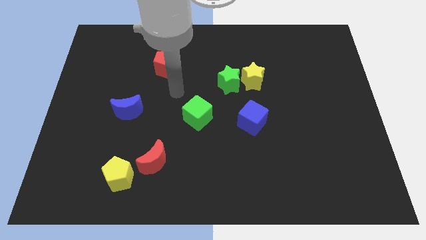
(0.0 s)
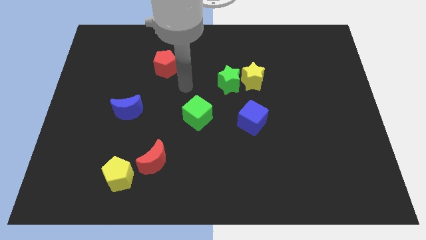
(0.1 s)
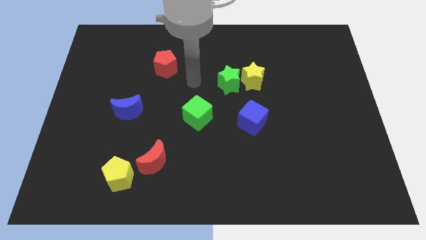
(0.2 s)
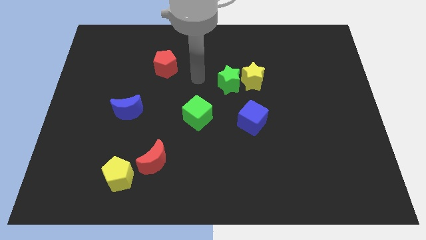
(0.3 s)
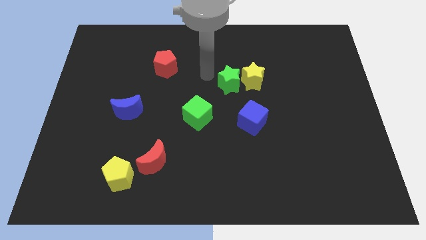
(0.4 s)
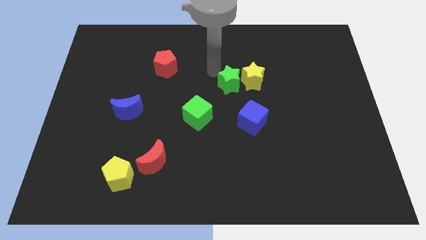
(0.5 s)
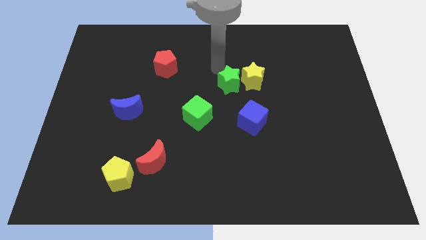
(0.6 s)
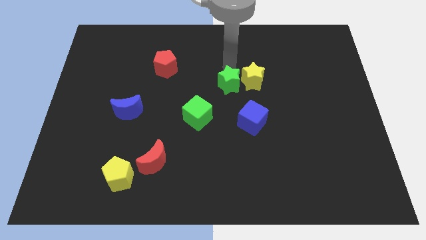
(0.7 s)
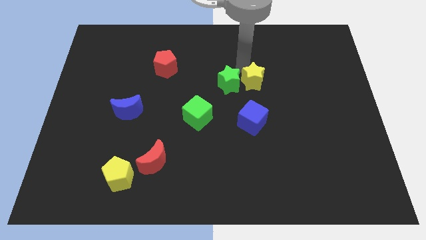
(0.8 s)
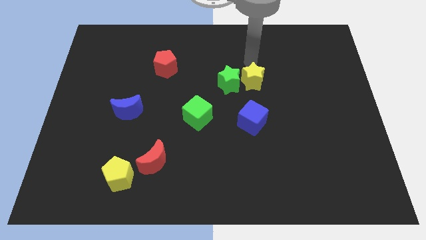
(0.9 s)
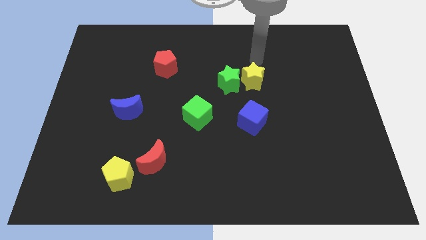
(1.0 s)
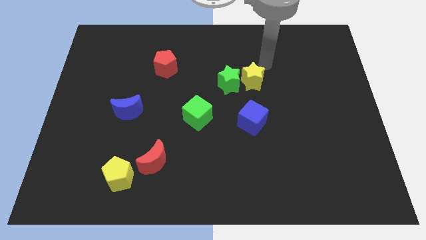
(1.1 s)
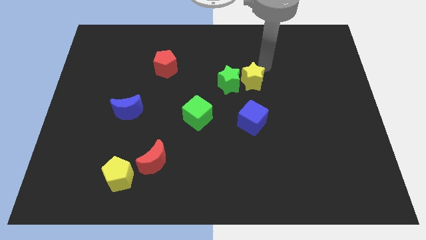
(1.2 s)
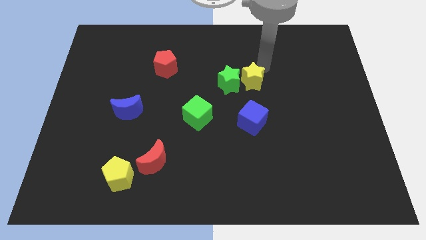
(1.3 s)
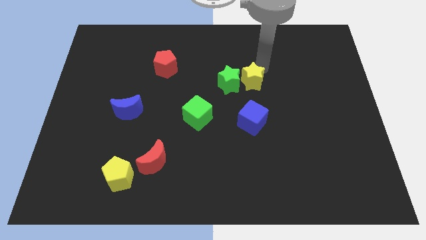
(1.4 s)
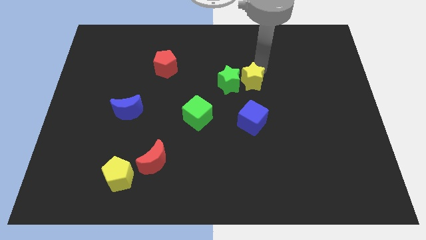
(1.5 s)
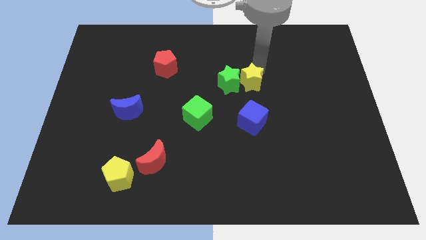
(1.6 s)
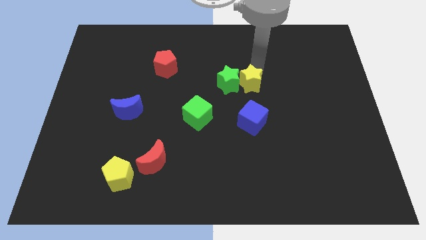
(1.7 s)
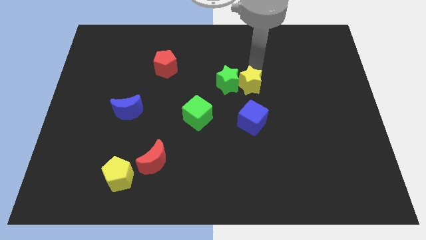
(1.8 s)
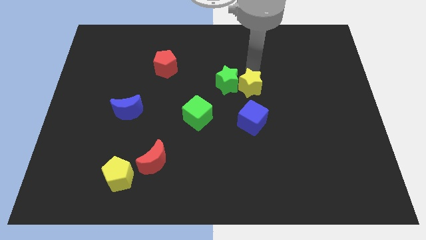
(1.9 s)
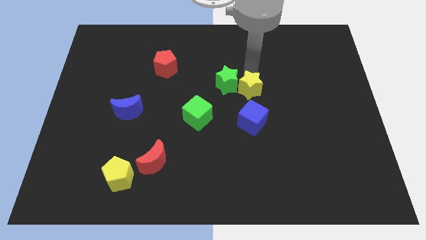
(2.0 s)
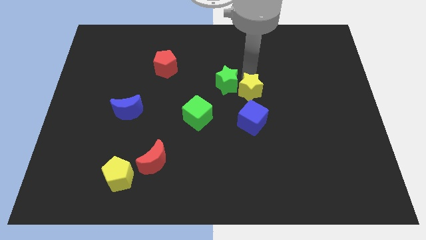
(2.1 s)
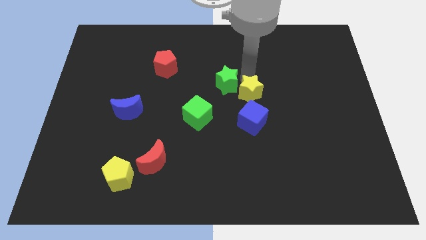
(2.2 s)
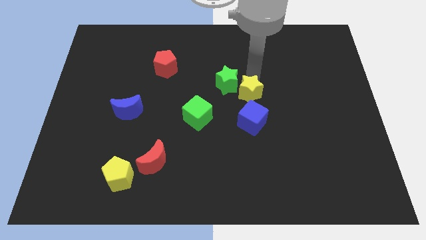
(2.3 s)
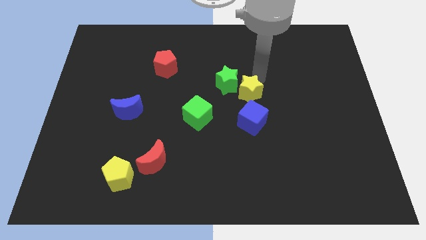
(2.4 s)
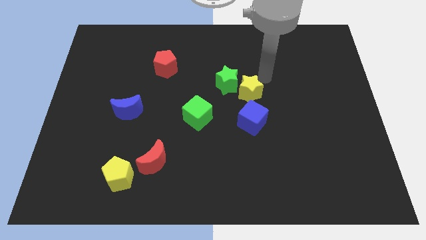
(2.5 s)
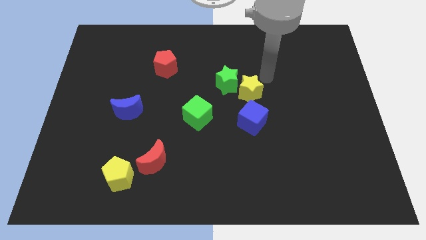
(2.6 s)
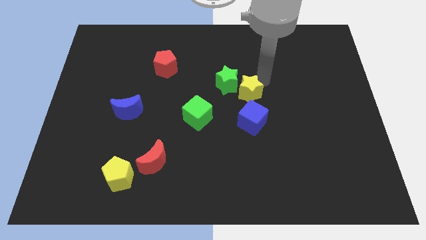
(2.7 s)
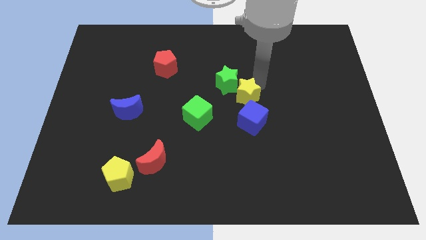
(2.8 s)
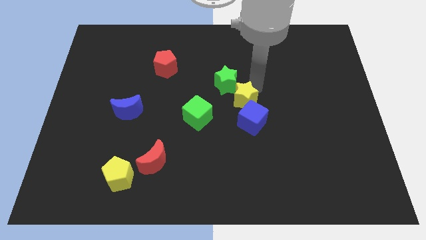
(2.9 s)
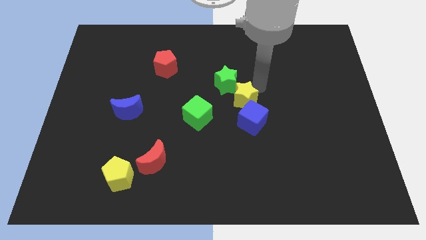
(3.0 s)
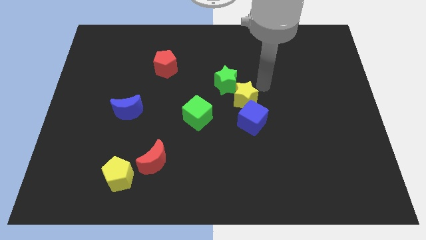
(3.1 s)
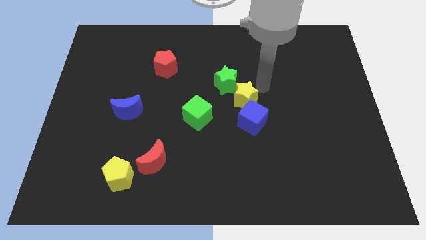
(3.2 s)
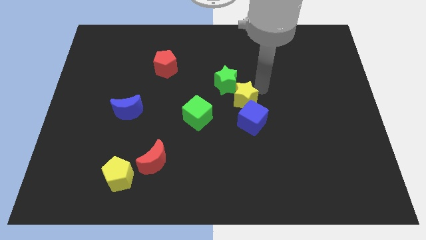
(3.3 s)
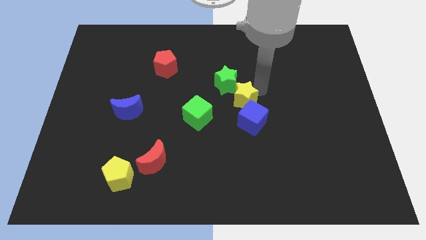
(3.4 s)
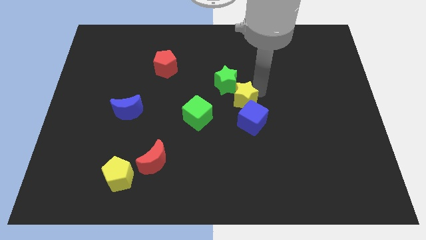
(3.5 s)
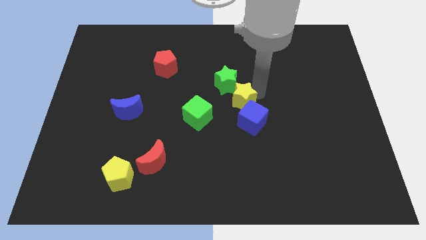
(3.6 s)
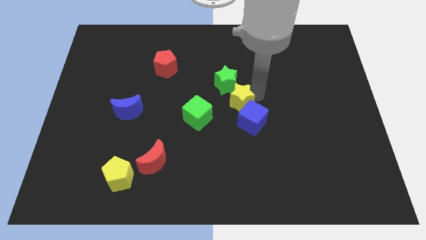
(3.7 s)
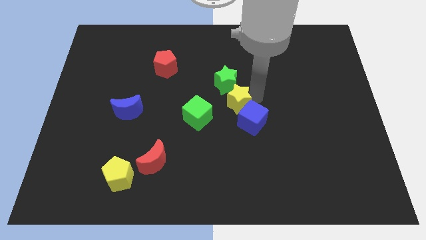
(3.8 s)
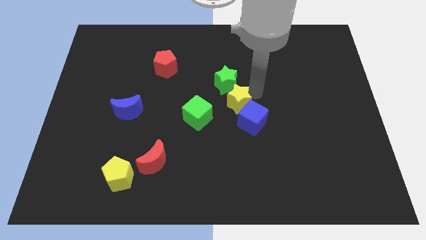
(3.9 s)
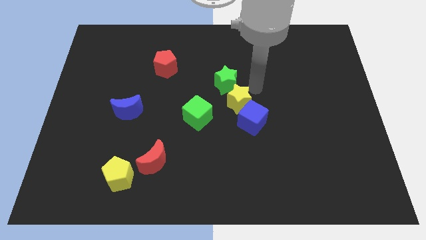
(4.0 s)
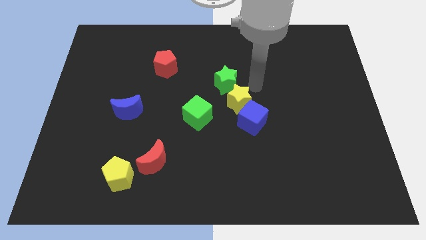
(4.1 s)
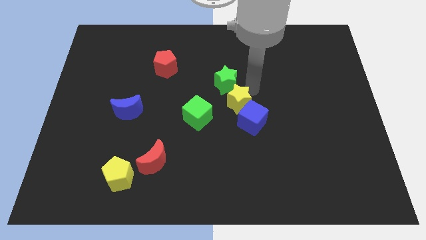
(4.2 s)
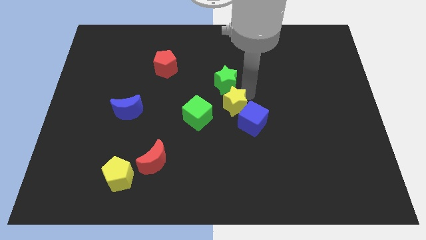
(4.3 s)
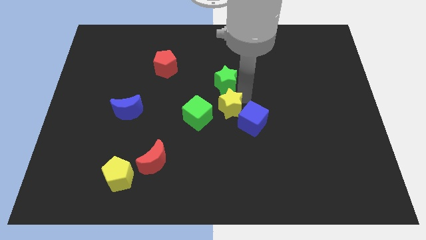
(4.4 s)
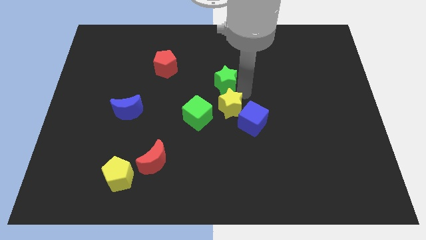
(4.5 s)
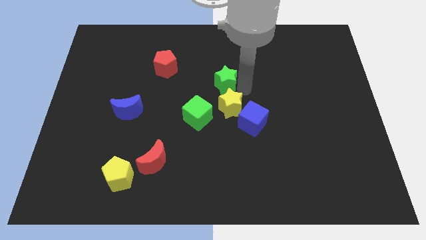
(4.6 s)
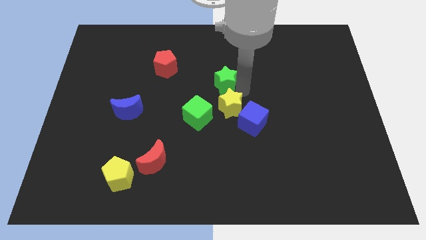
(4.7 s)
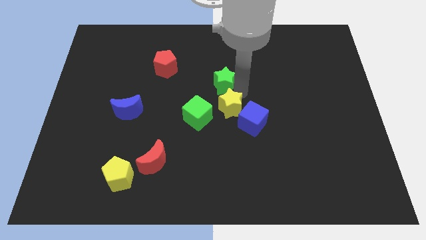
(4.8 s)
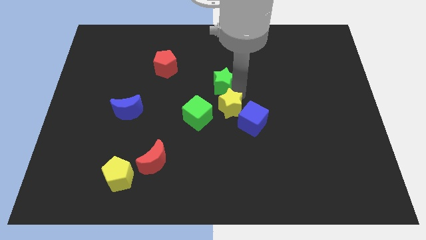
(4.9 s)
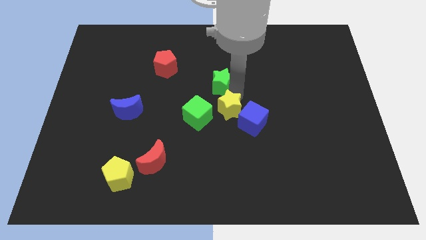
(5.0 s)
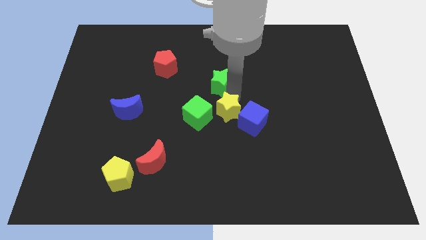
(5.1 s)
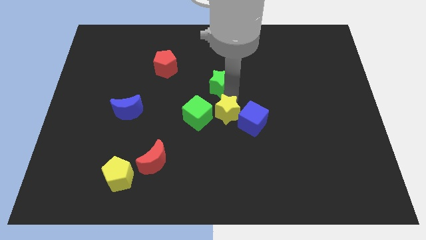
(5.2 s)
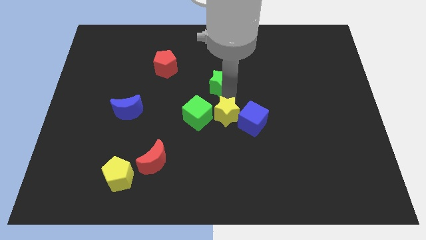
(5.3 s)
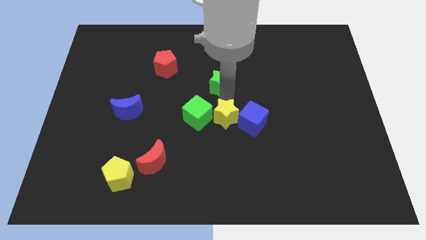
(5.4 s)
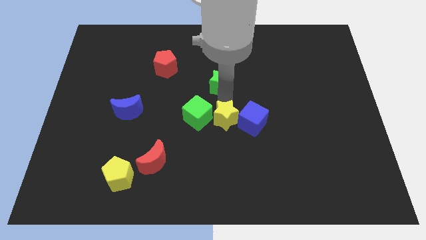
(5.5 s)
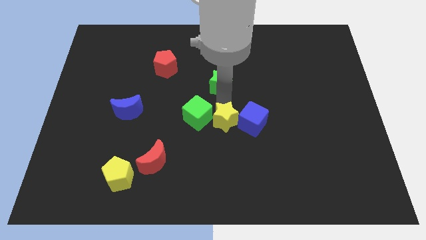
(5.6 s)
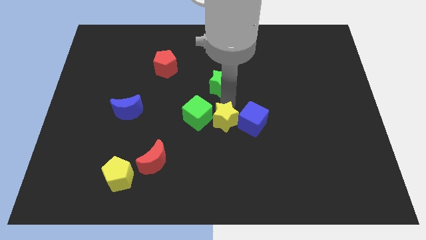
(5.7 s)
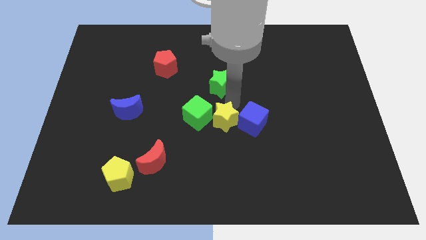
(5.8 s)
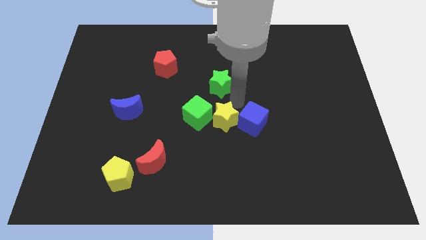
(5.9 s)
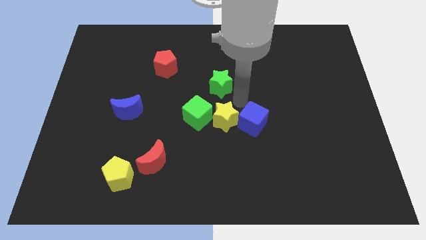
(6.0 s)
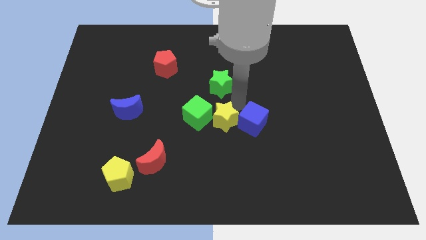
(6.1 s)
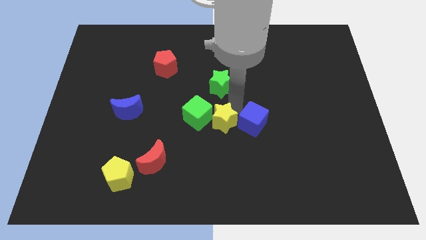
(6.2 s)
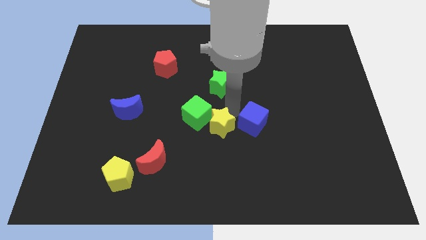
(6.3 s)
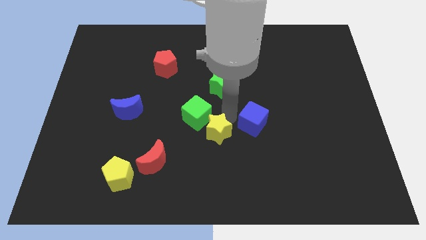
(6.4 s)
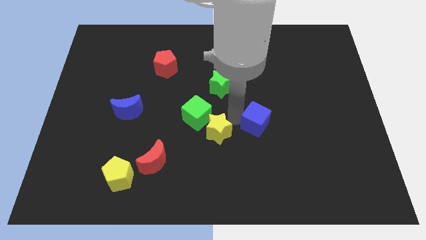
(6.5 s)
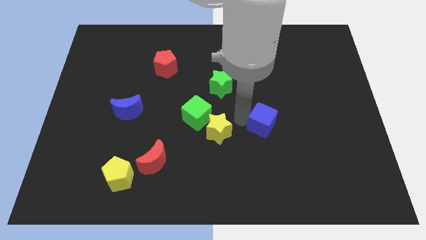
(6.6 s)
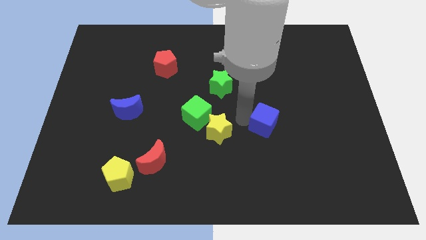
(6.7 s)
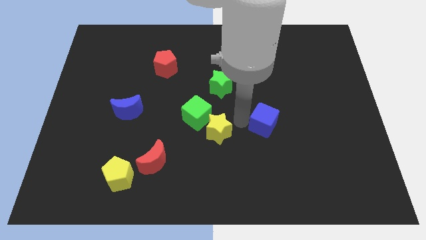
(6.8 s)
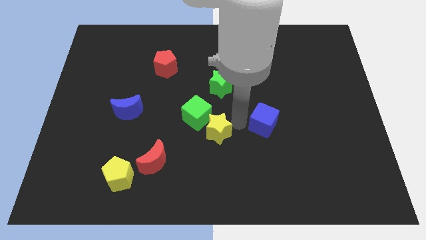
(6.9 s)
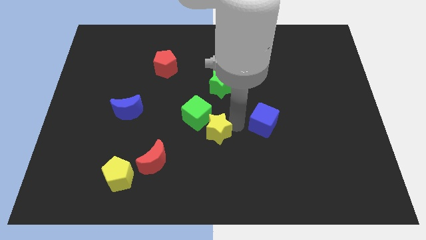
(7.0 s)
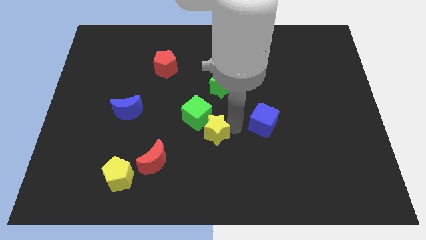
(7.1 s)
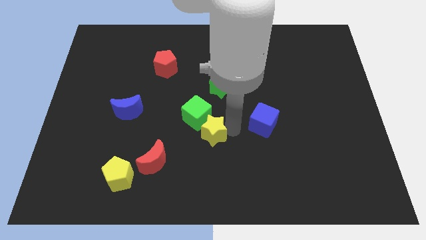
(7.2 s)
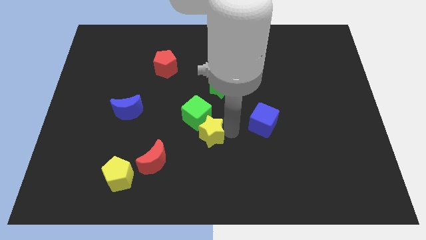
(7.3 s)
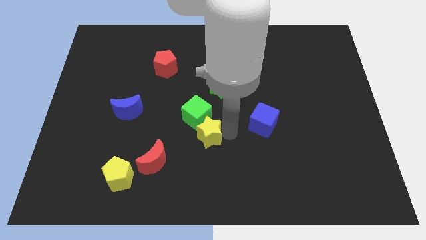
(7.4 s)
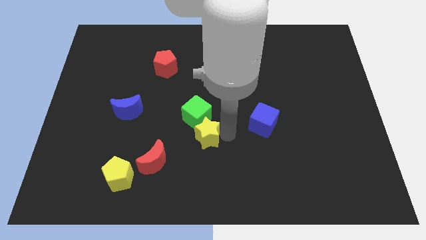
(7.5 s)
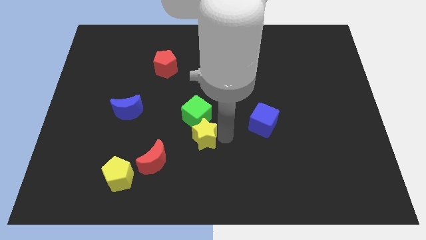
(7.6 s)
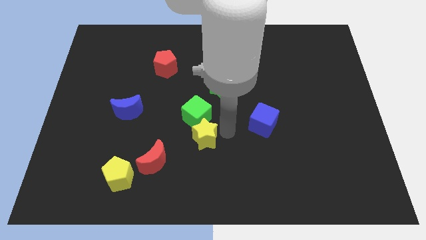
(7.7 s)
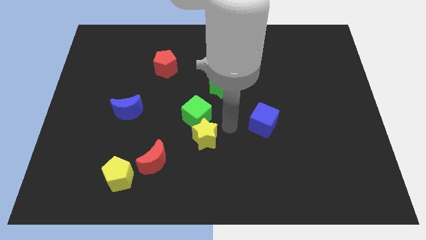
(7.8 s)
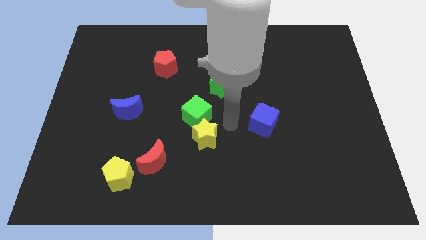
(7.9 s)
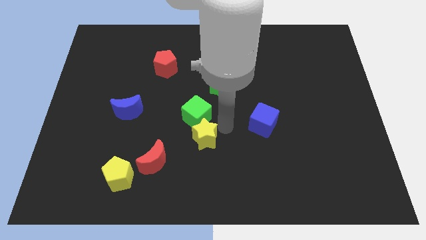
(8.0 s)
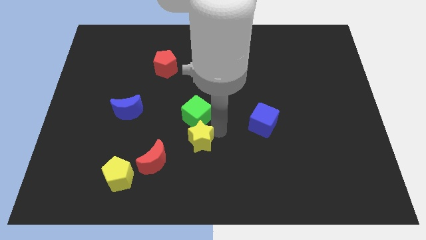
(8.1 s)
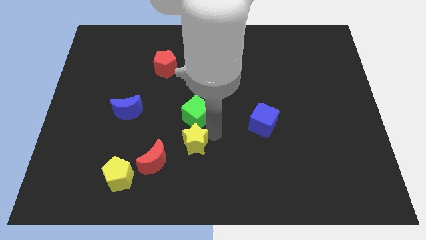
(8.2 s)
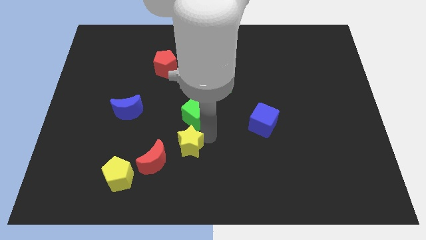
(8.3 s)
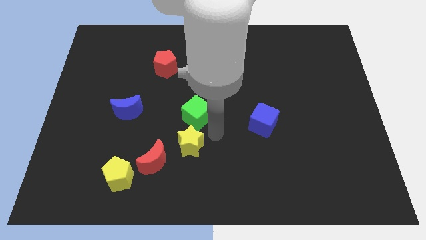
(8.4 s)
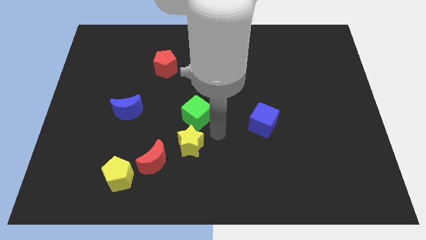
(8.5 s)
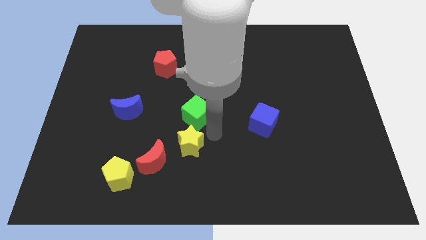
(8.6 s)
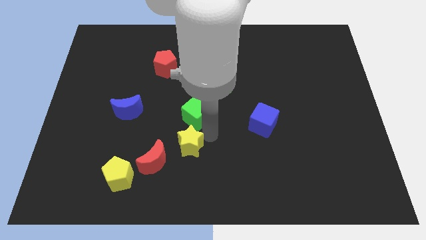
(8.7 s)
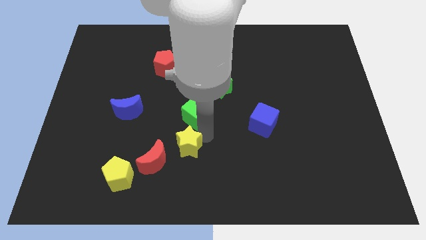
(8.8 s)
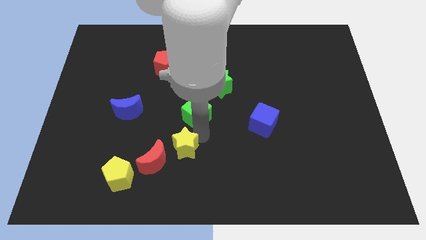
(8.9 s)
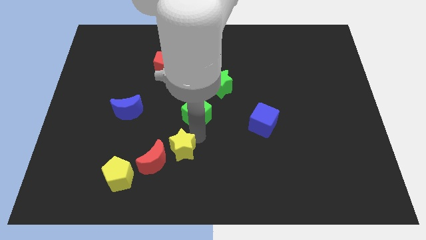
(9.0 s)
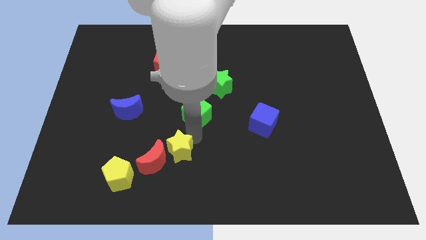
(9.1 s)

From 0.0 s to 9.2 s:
put the yellow star towards the red moon
